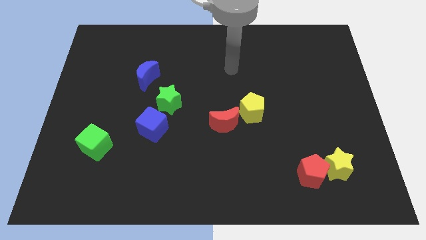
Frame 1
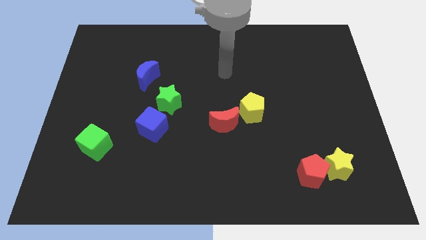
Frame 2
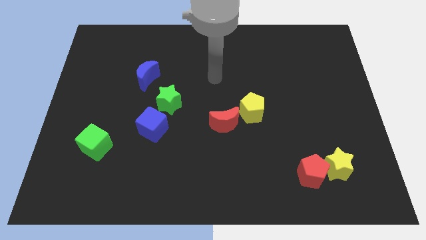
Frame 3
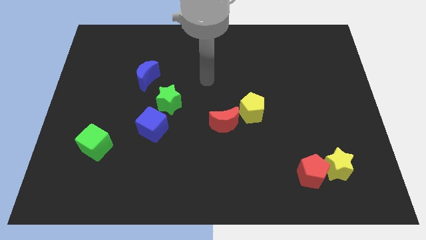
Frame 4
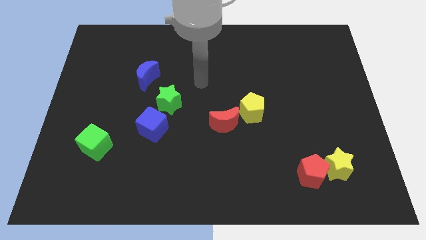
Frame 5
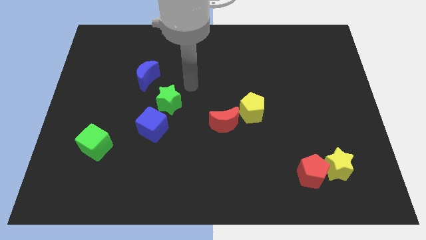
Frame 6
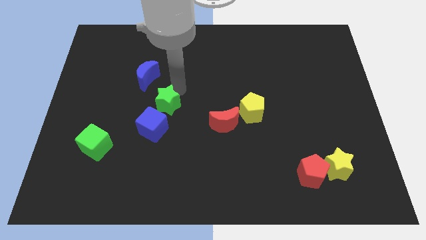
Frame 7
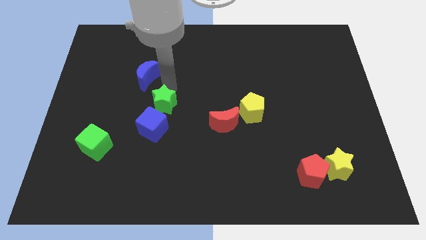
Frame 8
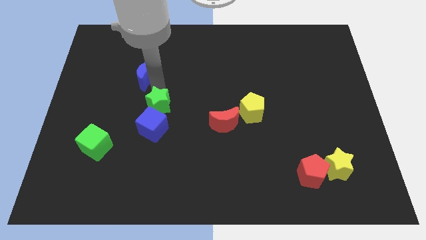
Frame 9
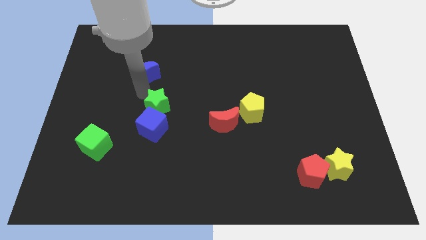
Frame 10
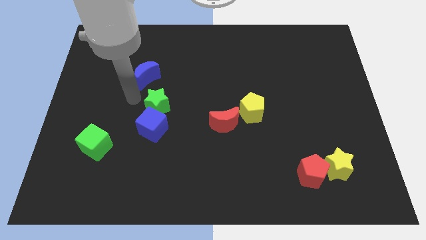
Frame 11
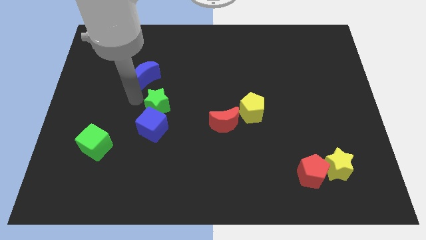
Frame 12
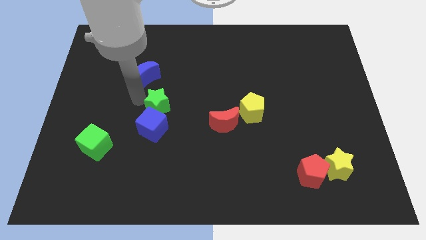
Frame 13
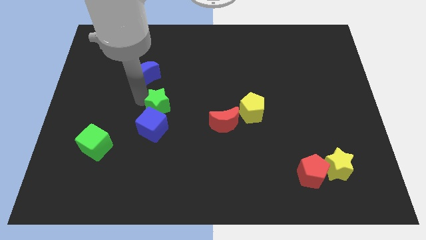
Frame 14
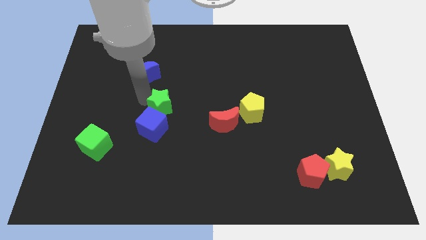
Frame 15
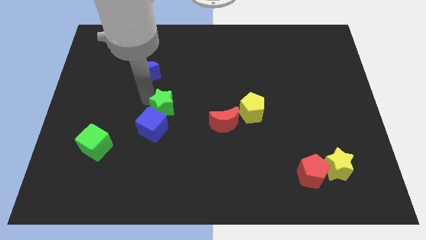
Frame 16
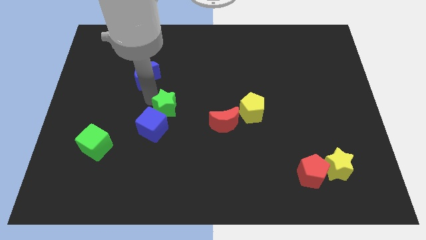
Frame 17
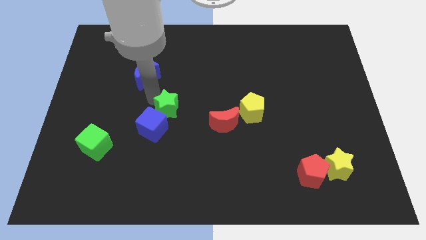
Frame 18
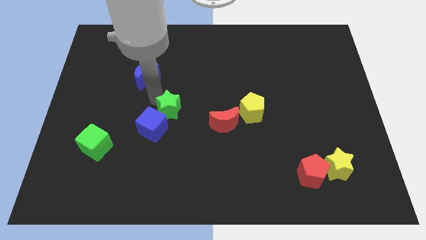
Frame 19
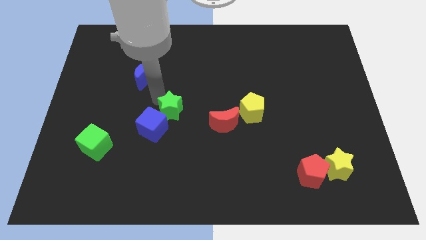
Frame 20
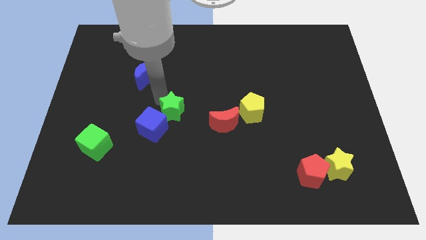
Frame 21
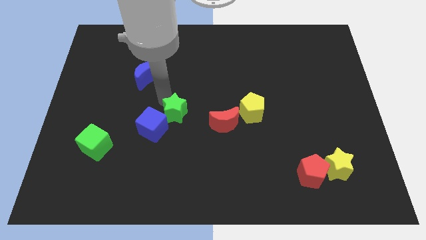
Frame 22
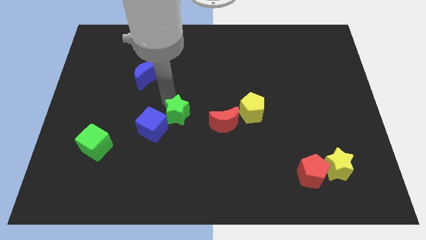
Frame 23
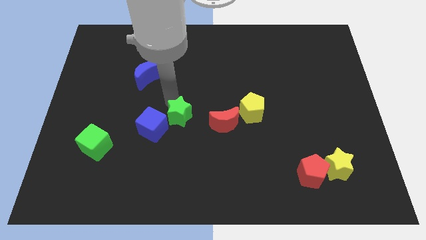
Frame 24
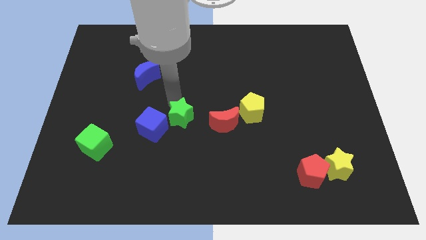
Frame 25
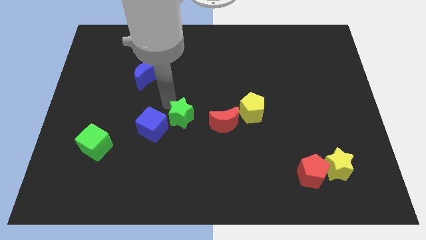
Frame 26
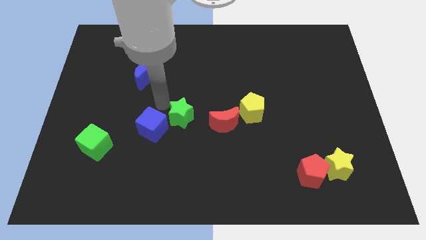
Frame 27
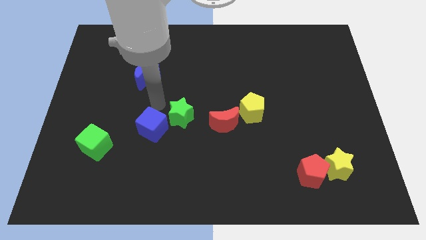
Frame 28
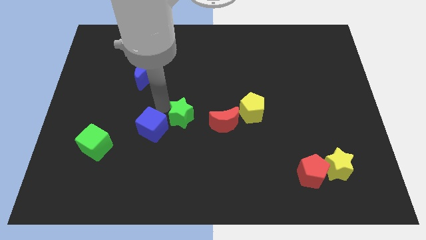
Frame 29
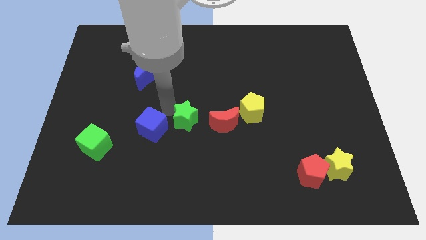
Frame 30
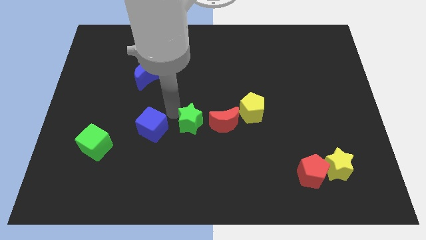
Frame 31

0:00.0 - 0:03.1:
push the green star somewhat diagonally down and right

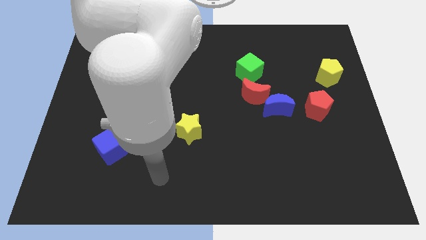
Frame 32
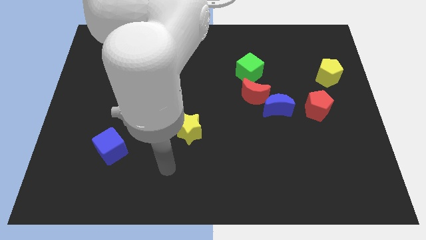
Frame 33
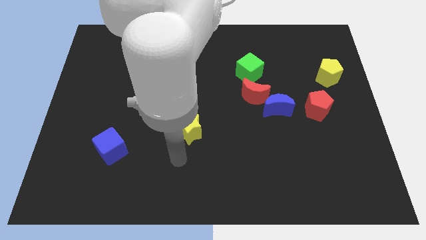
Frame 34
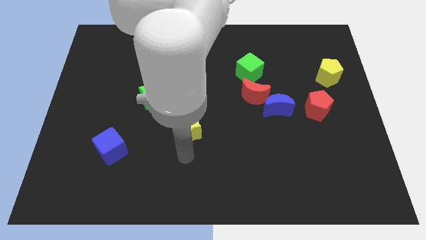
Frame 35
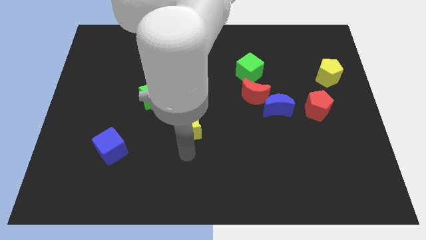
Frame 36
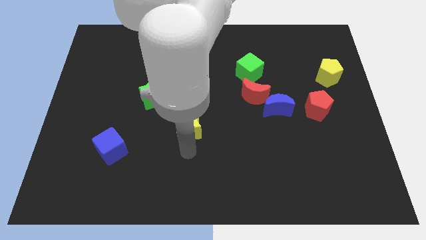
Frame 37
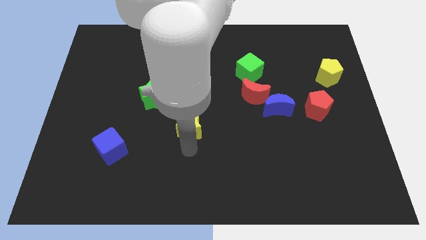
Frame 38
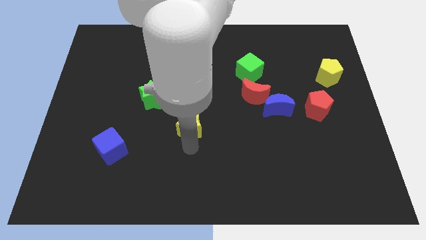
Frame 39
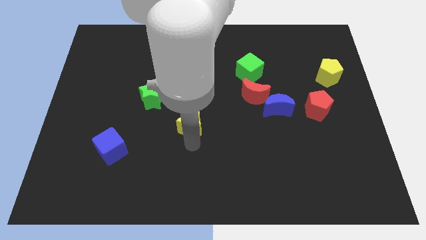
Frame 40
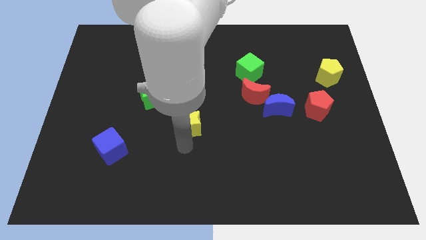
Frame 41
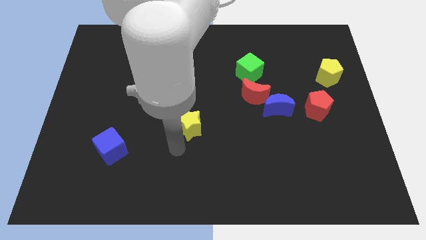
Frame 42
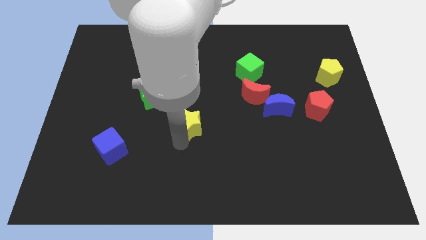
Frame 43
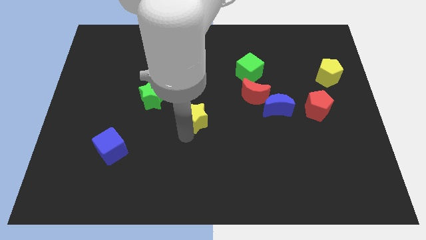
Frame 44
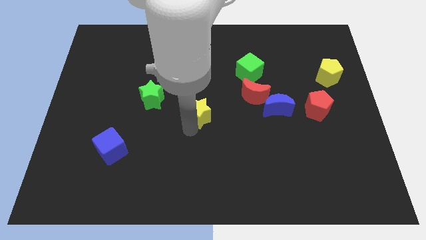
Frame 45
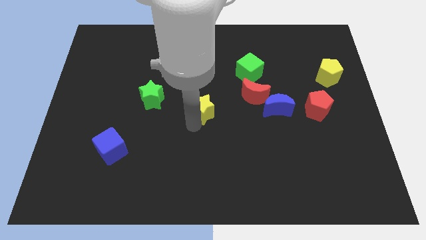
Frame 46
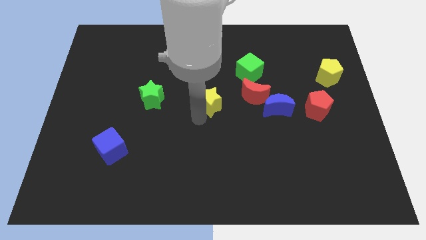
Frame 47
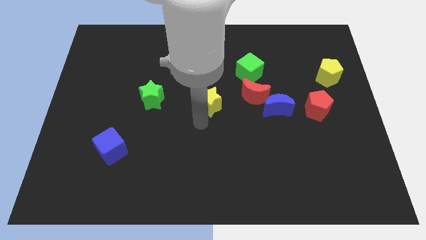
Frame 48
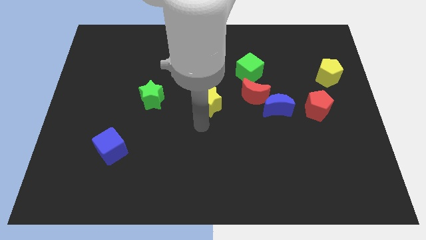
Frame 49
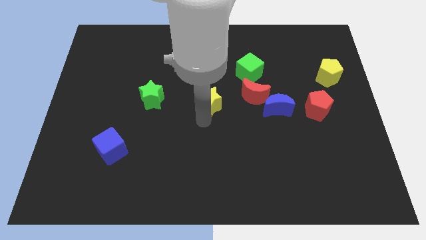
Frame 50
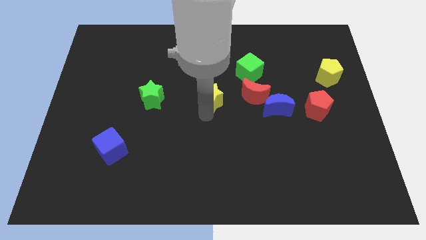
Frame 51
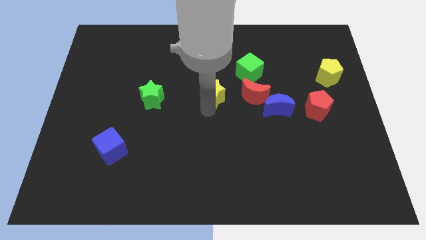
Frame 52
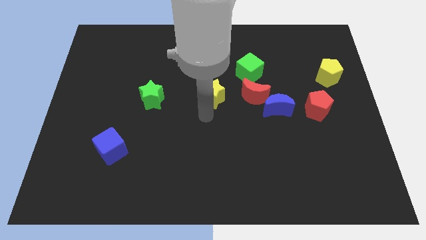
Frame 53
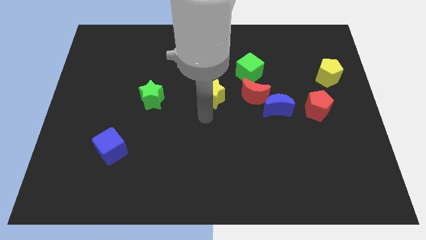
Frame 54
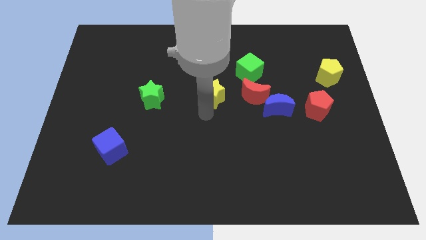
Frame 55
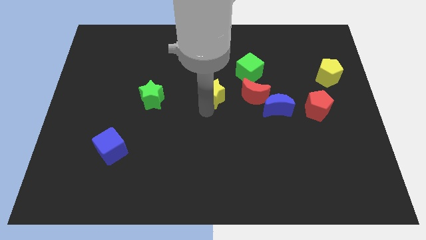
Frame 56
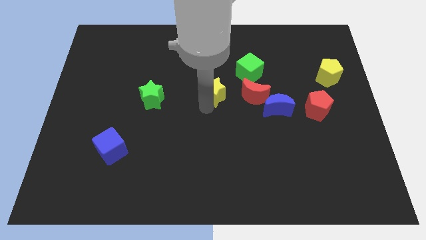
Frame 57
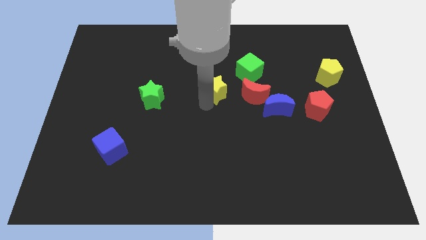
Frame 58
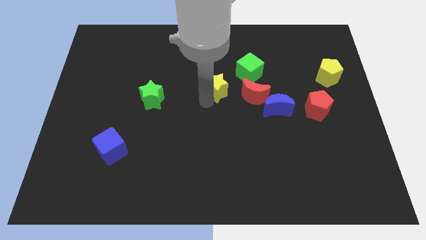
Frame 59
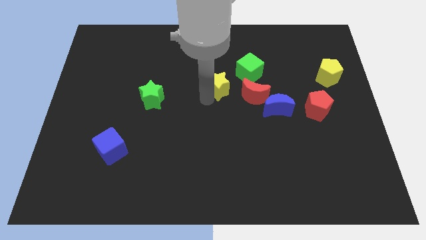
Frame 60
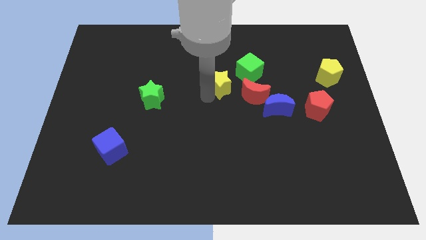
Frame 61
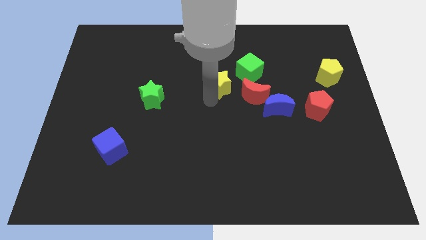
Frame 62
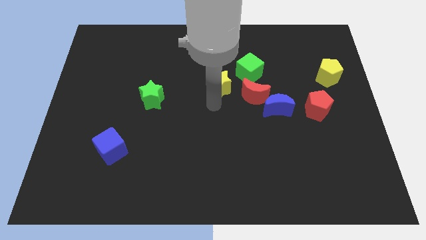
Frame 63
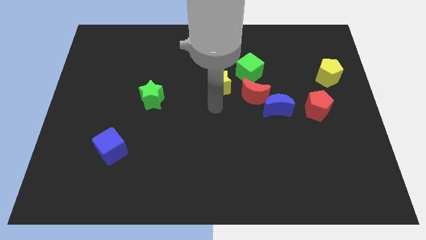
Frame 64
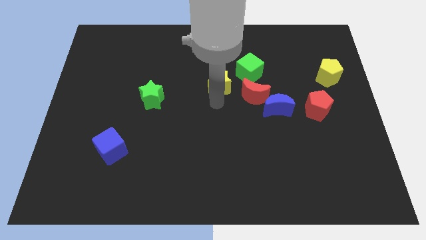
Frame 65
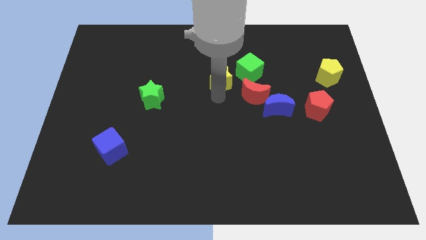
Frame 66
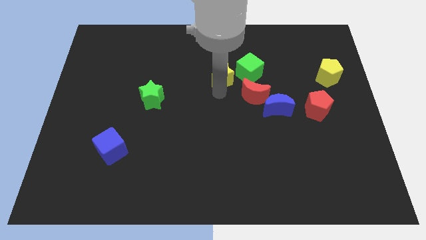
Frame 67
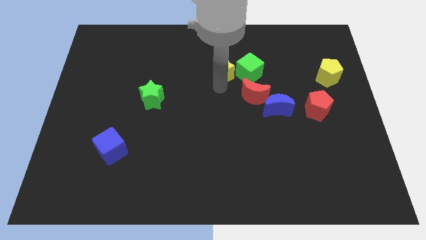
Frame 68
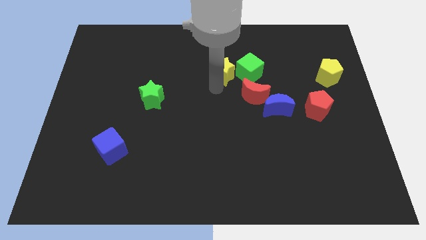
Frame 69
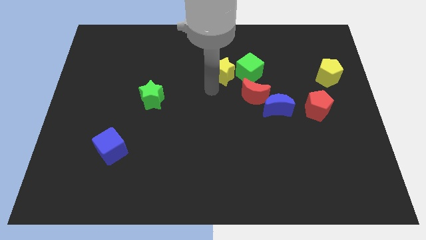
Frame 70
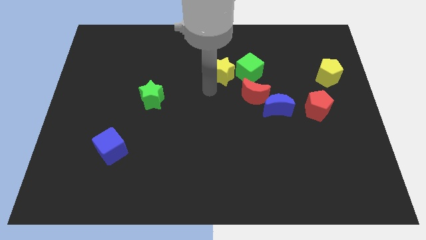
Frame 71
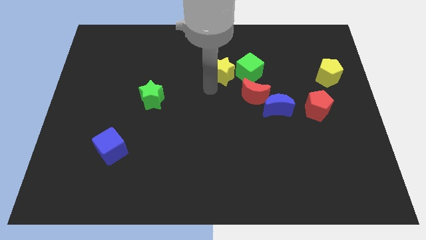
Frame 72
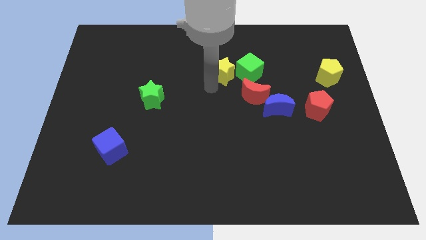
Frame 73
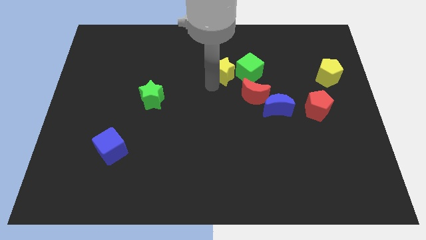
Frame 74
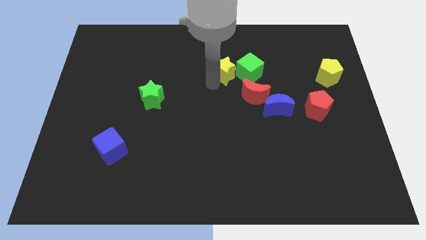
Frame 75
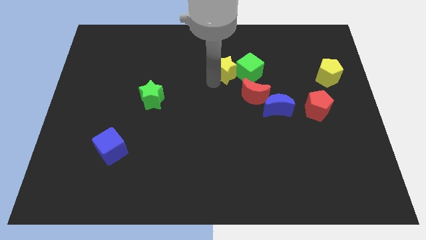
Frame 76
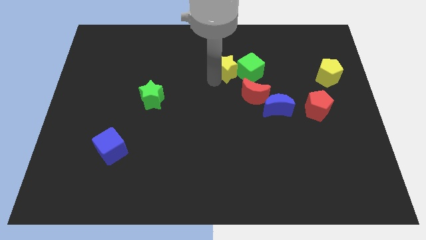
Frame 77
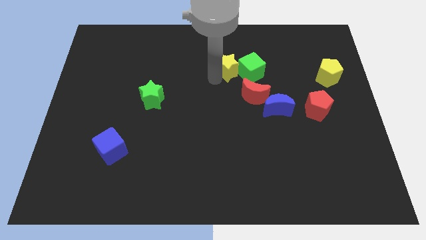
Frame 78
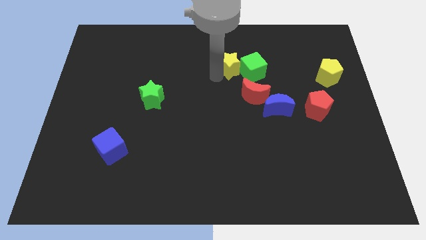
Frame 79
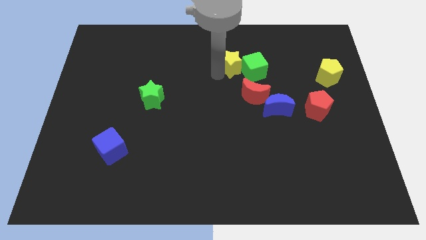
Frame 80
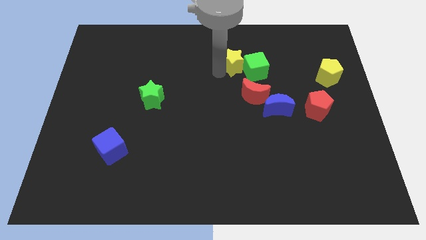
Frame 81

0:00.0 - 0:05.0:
slide the yellow star up and then to the right

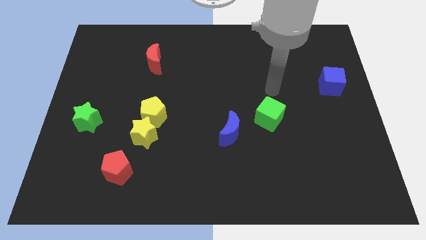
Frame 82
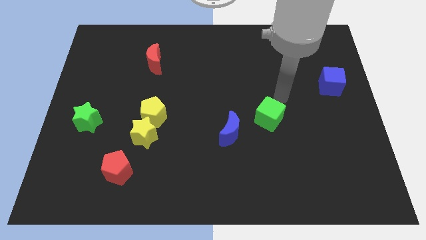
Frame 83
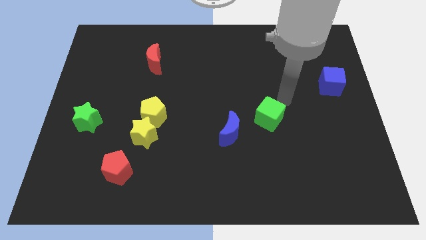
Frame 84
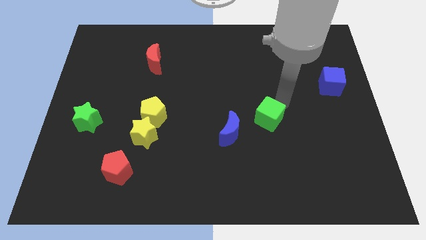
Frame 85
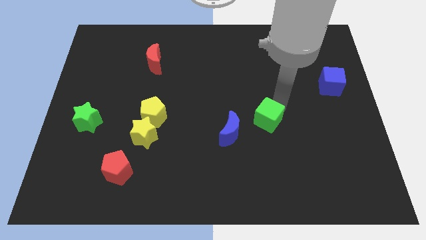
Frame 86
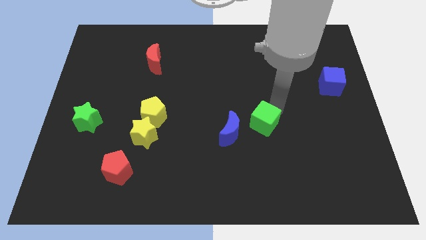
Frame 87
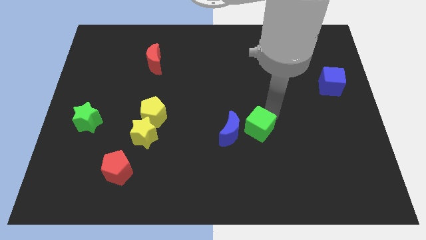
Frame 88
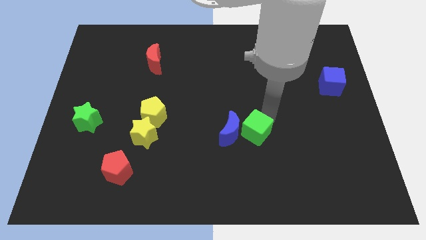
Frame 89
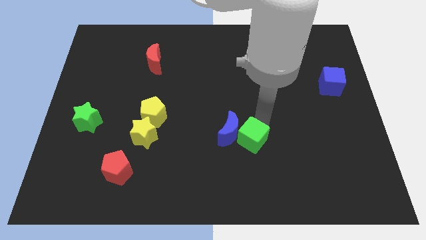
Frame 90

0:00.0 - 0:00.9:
slide the green cube diagonally downwards and to the left a little bit
